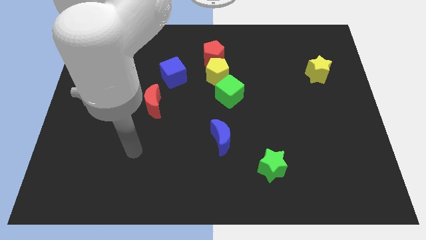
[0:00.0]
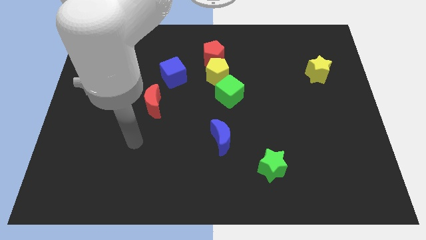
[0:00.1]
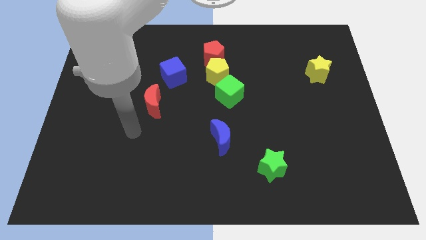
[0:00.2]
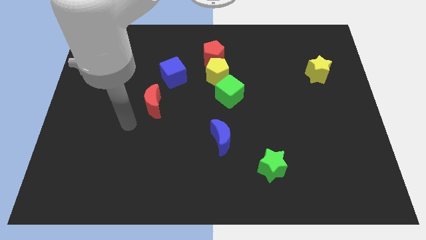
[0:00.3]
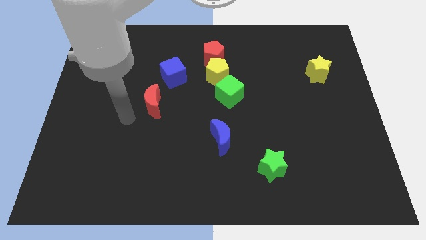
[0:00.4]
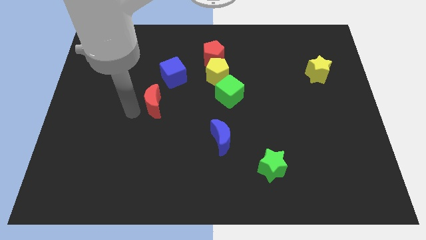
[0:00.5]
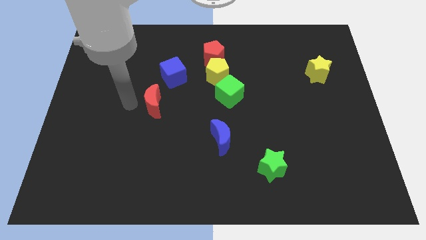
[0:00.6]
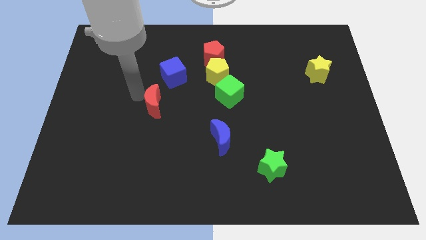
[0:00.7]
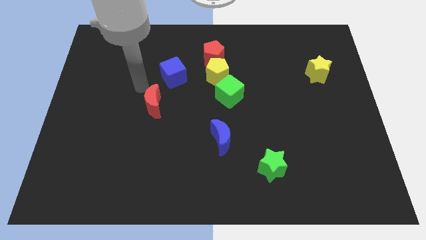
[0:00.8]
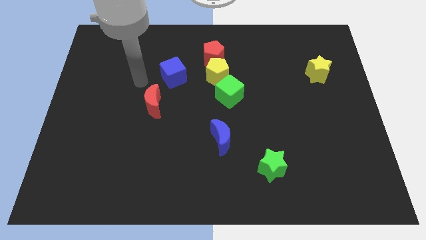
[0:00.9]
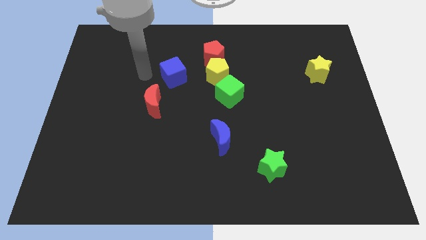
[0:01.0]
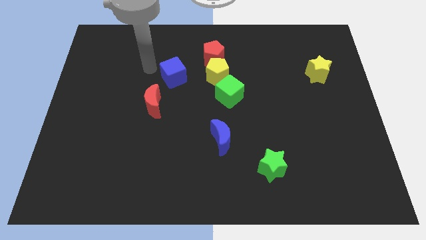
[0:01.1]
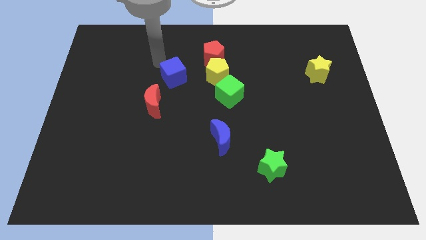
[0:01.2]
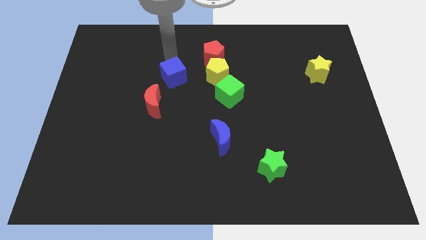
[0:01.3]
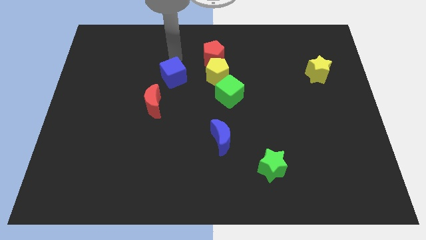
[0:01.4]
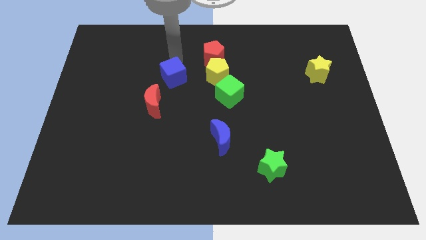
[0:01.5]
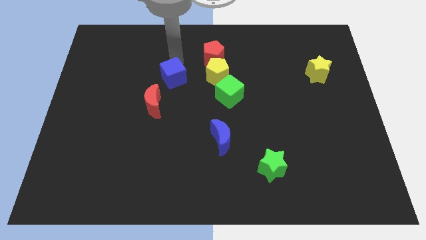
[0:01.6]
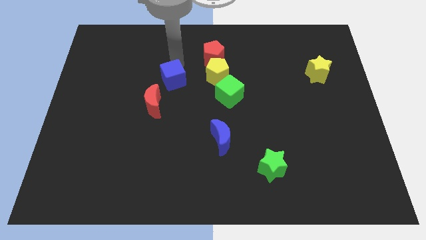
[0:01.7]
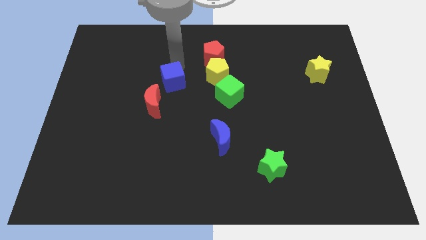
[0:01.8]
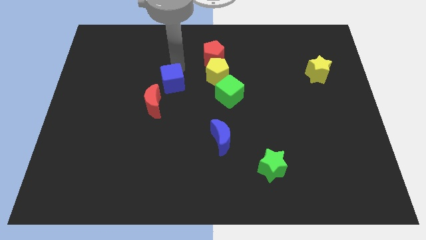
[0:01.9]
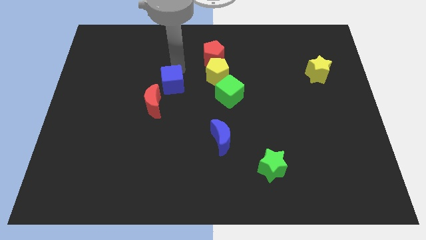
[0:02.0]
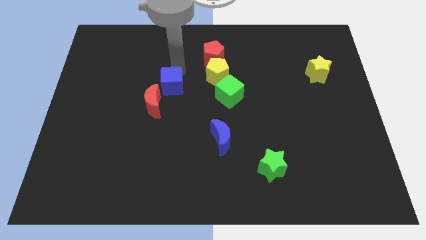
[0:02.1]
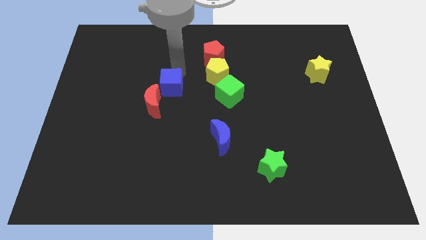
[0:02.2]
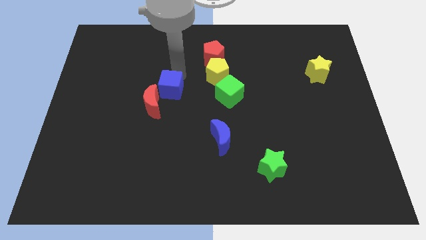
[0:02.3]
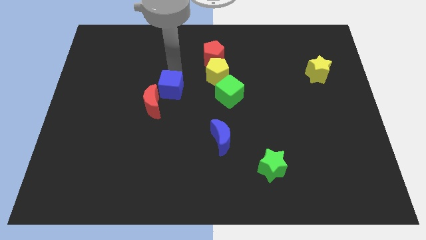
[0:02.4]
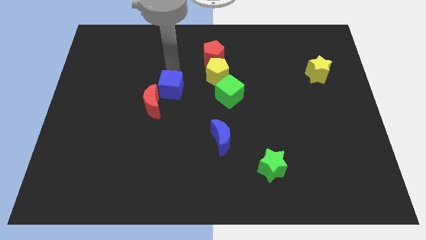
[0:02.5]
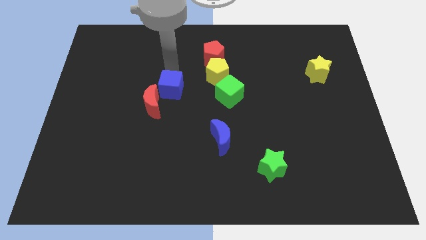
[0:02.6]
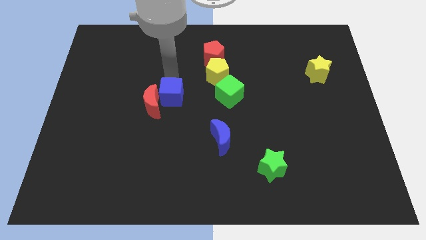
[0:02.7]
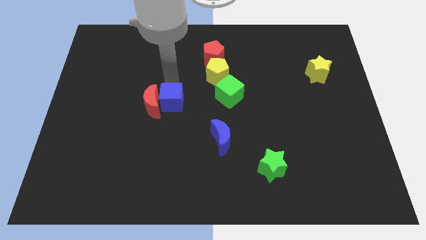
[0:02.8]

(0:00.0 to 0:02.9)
slightly push the blue cube downwards

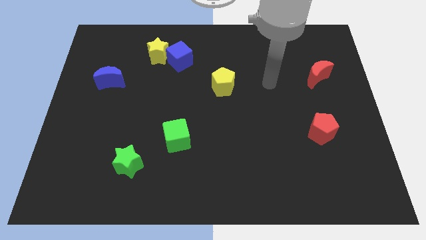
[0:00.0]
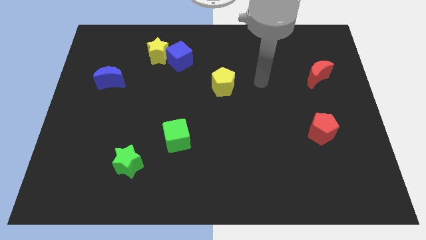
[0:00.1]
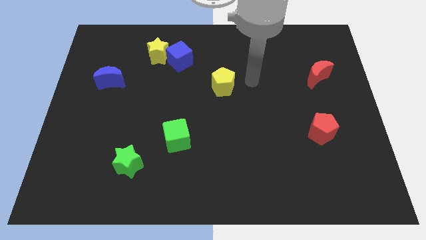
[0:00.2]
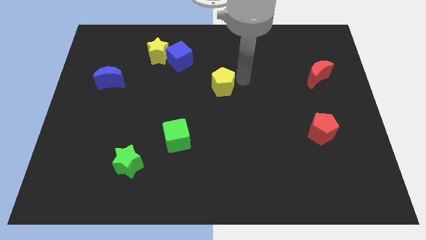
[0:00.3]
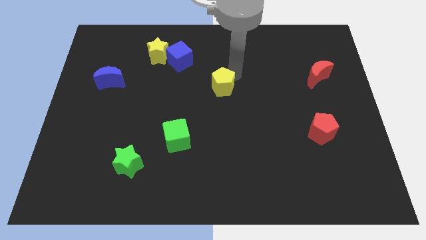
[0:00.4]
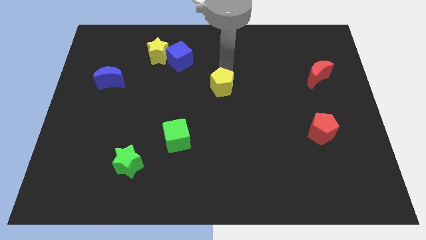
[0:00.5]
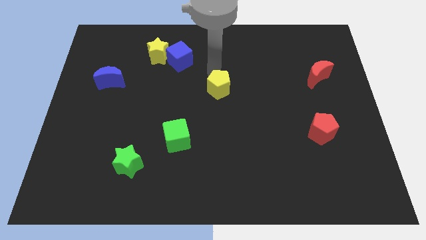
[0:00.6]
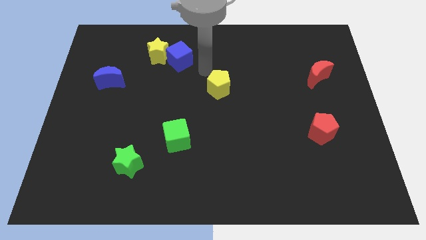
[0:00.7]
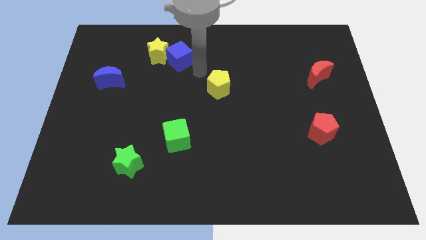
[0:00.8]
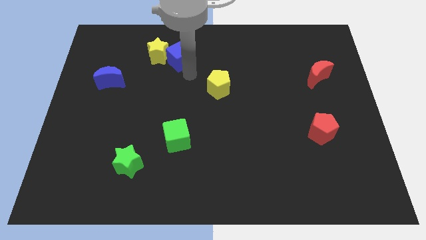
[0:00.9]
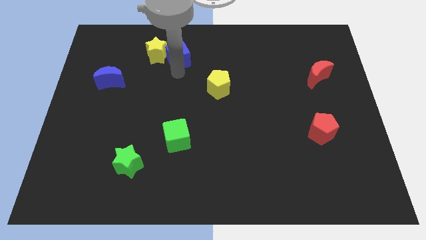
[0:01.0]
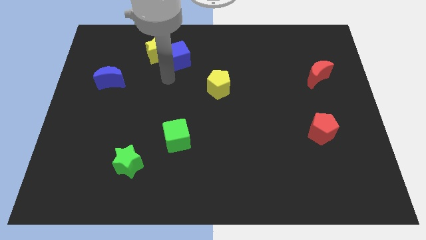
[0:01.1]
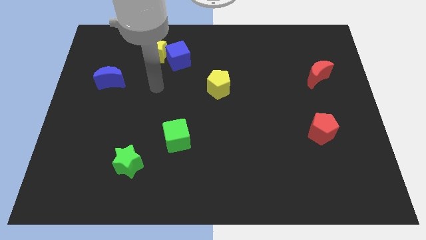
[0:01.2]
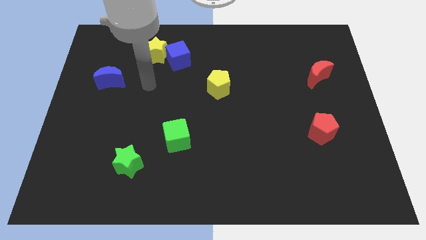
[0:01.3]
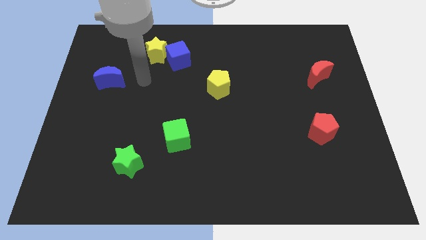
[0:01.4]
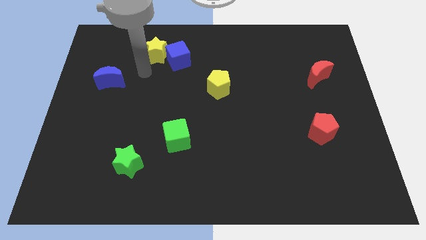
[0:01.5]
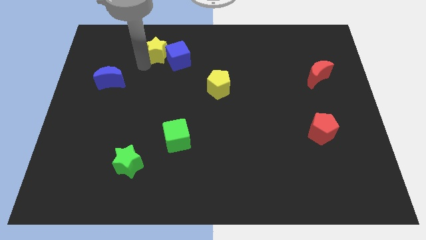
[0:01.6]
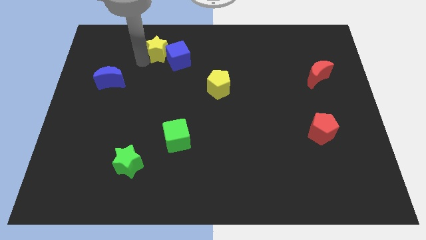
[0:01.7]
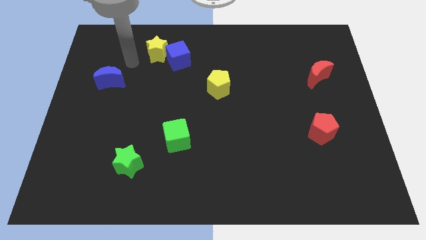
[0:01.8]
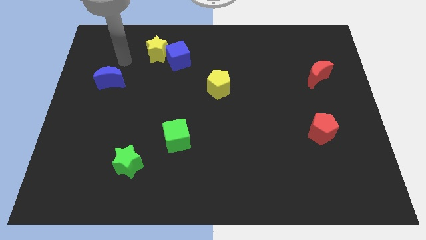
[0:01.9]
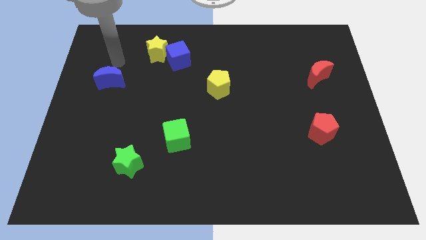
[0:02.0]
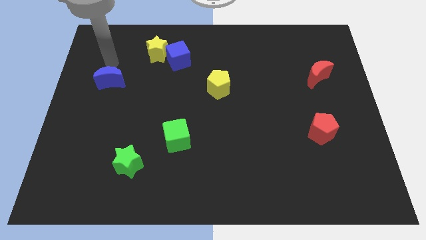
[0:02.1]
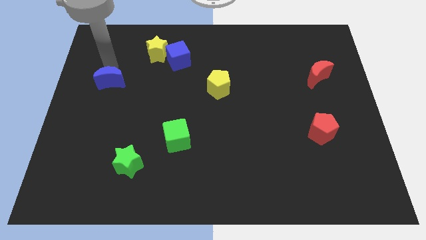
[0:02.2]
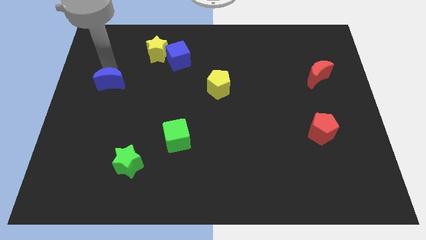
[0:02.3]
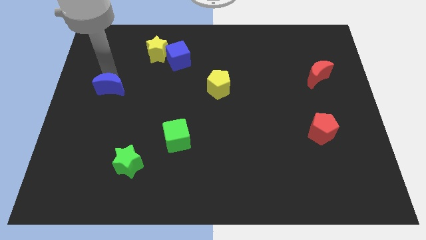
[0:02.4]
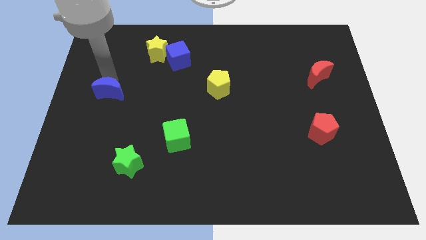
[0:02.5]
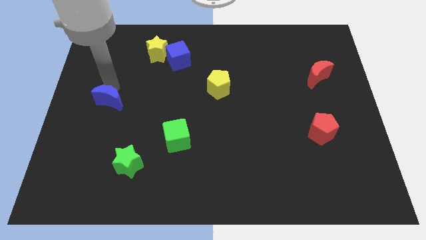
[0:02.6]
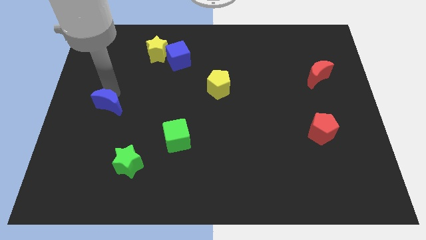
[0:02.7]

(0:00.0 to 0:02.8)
move the blue moon slightly down

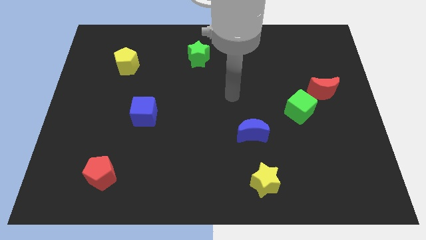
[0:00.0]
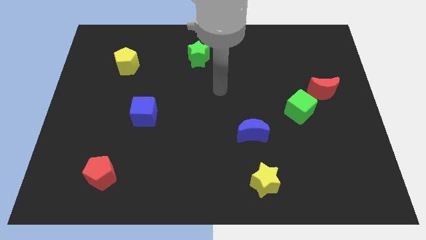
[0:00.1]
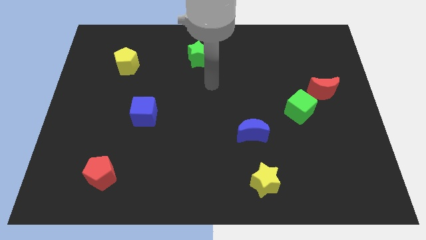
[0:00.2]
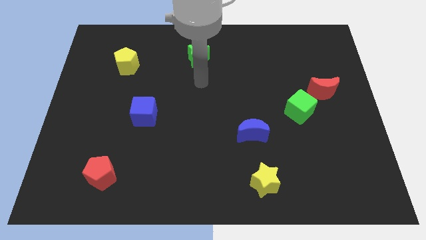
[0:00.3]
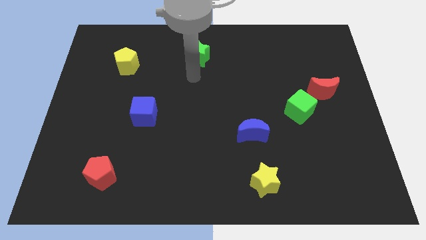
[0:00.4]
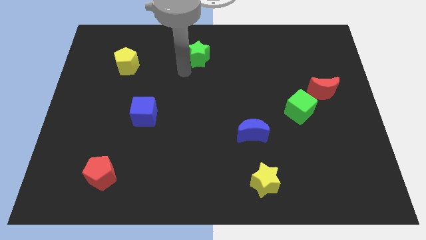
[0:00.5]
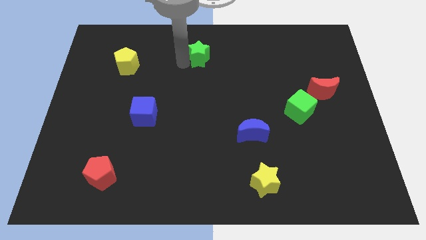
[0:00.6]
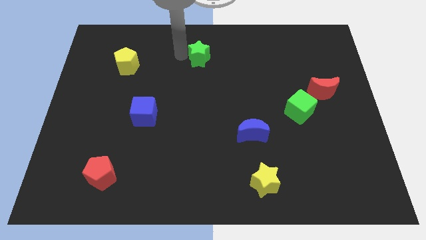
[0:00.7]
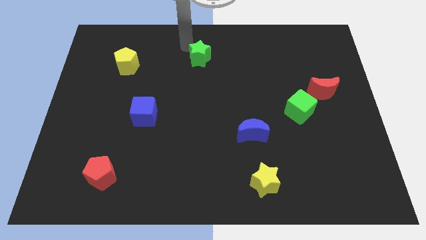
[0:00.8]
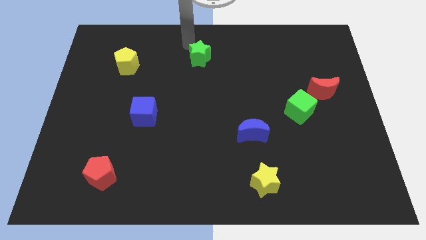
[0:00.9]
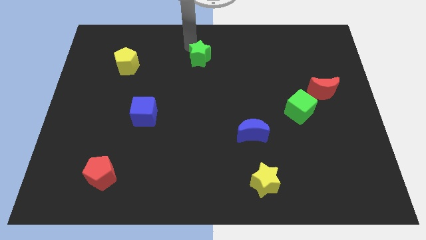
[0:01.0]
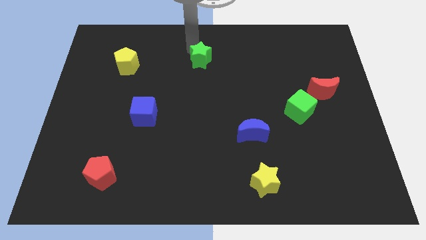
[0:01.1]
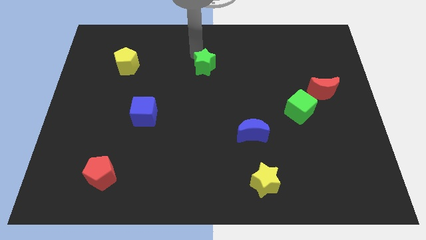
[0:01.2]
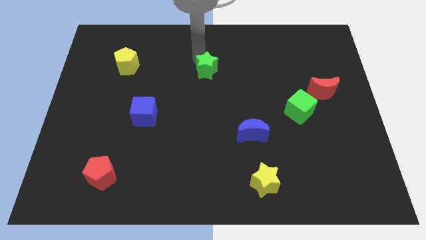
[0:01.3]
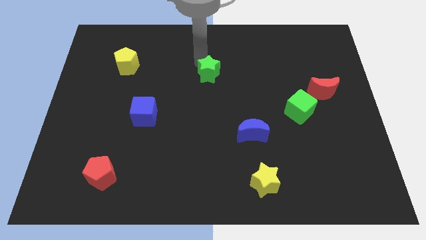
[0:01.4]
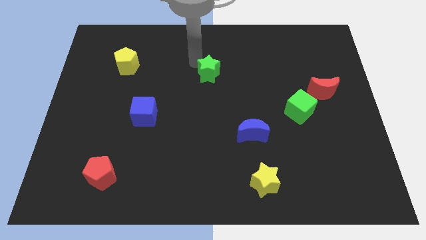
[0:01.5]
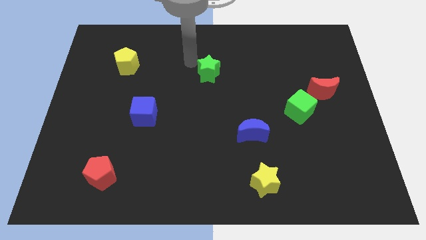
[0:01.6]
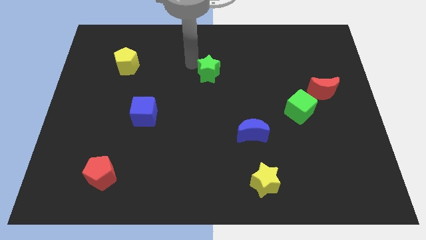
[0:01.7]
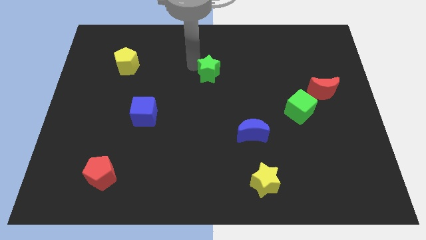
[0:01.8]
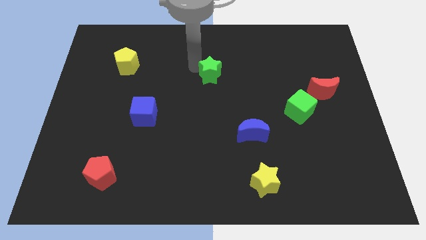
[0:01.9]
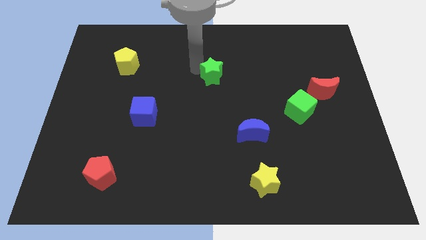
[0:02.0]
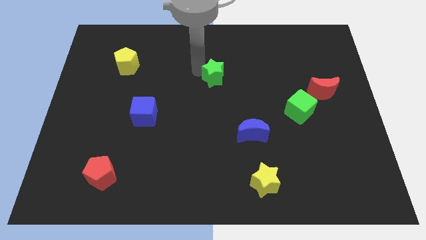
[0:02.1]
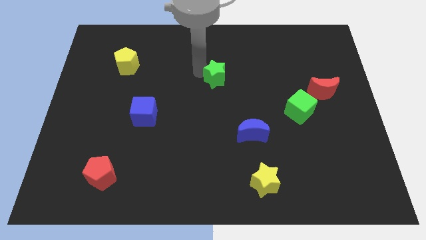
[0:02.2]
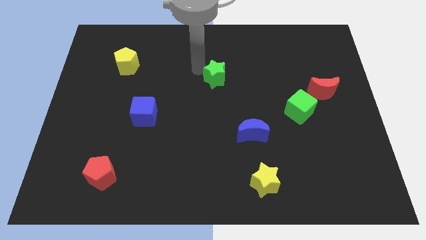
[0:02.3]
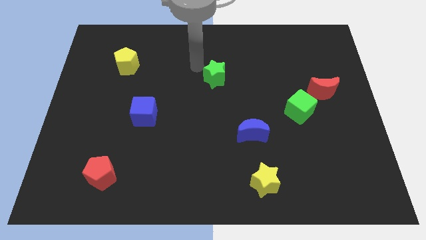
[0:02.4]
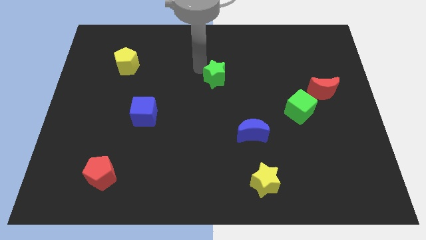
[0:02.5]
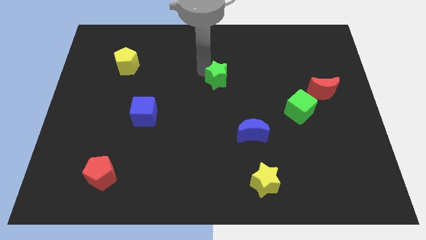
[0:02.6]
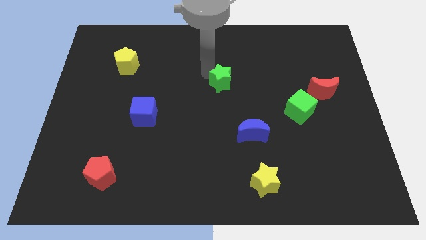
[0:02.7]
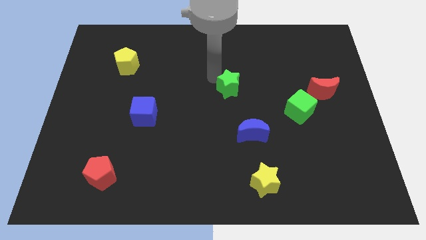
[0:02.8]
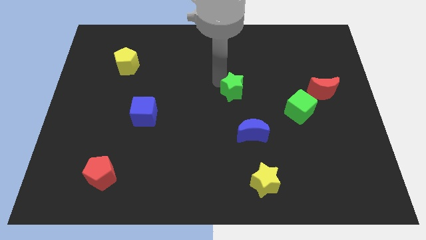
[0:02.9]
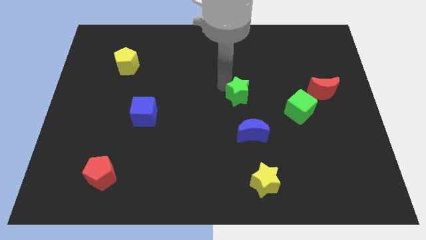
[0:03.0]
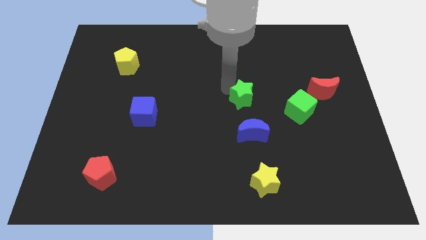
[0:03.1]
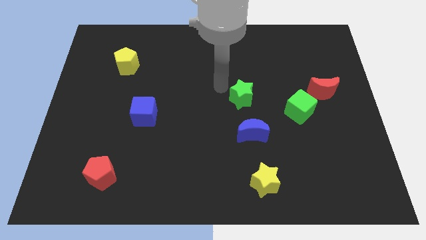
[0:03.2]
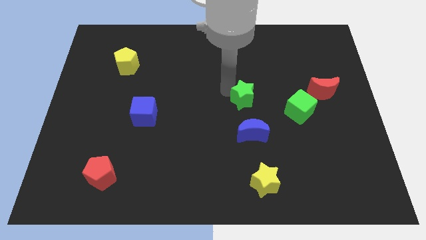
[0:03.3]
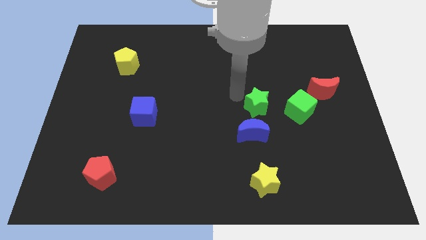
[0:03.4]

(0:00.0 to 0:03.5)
slide the green star diagonally downwards and right
